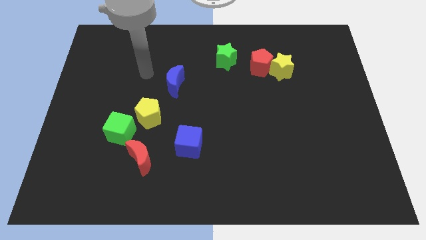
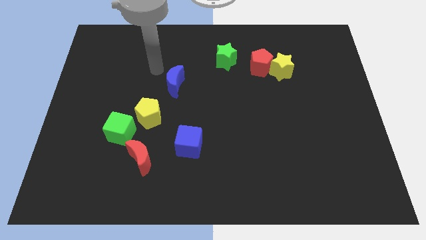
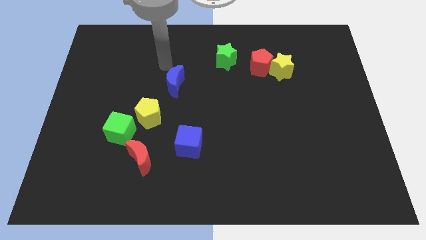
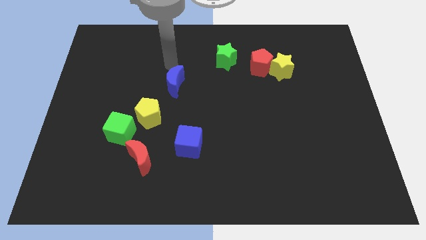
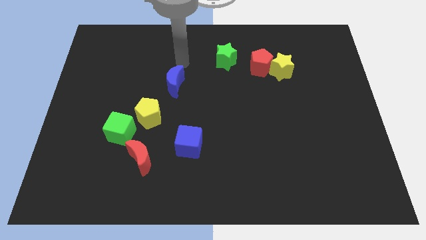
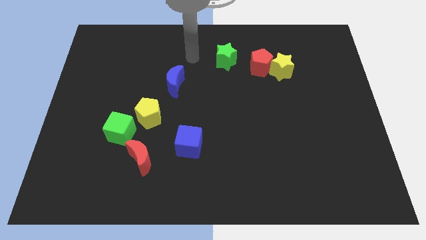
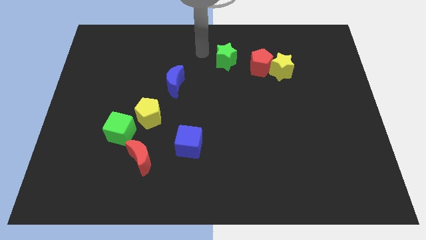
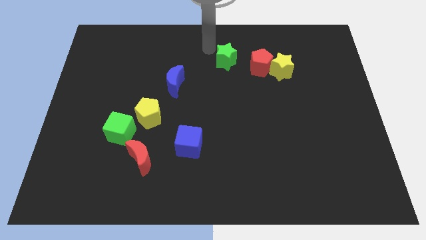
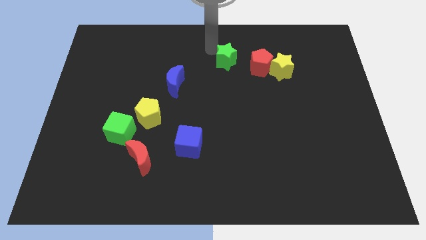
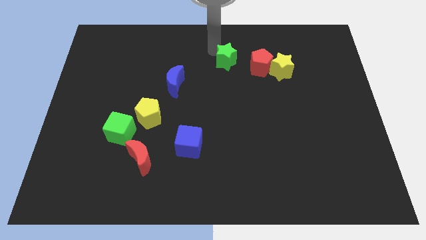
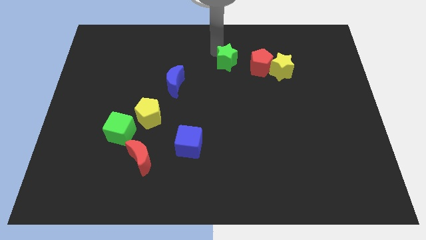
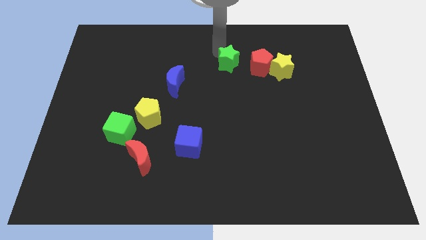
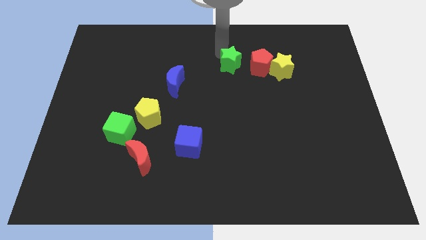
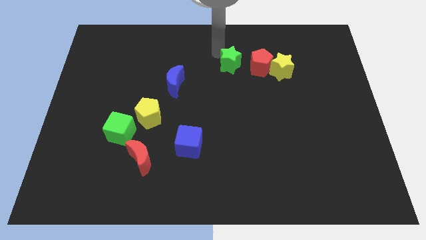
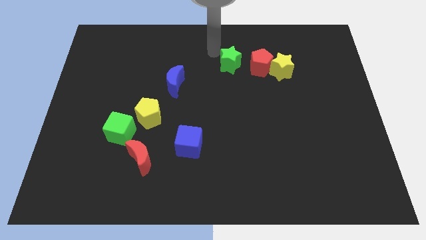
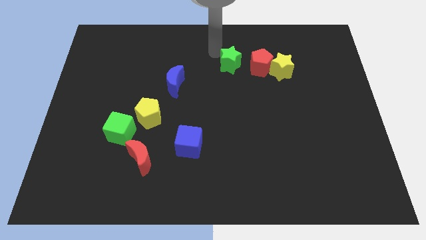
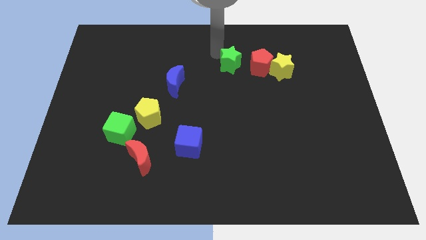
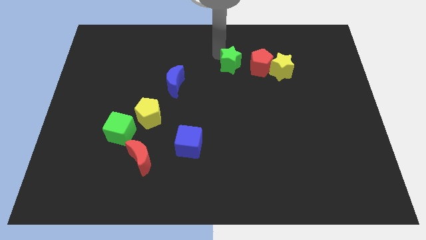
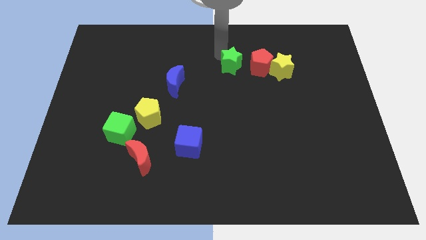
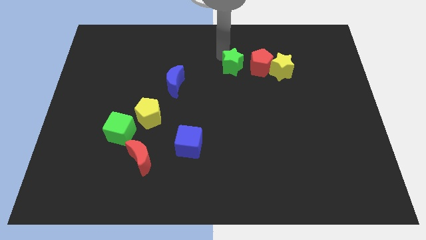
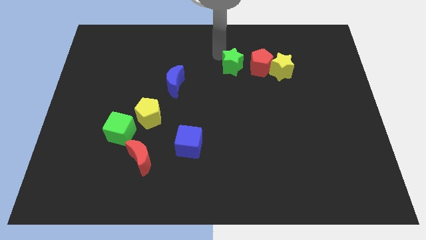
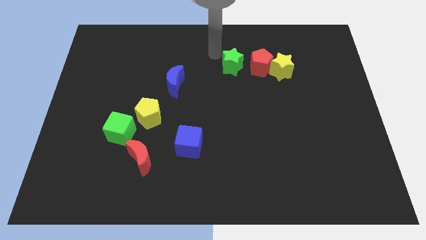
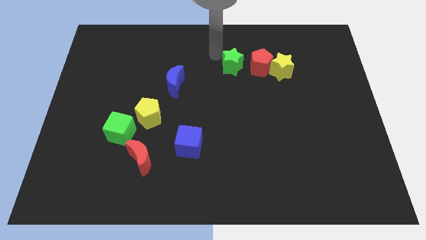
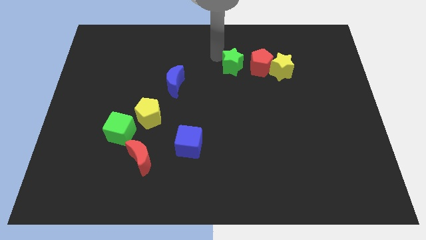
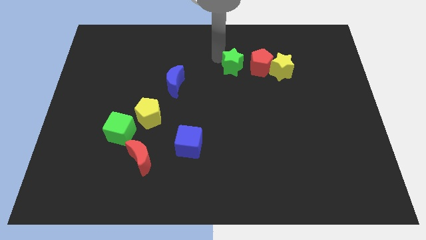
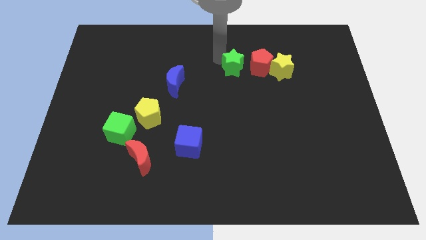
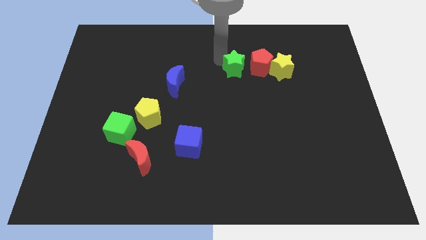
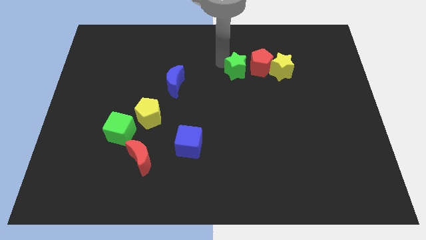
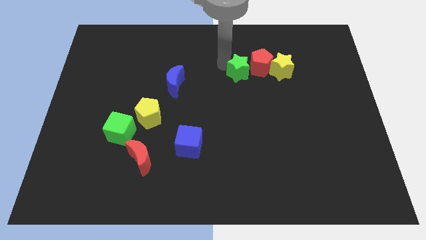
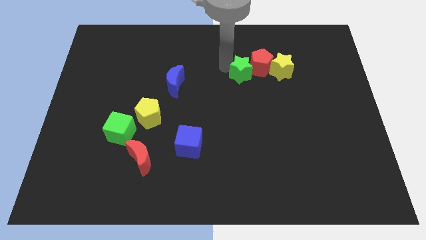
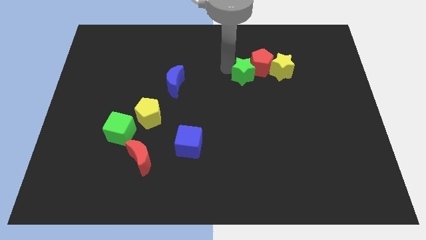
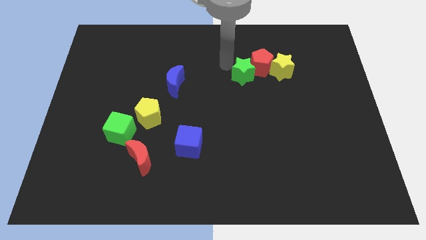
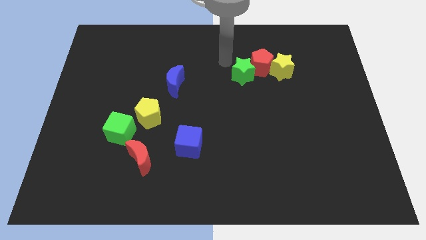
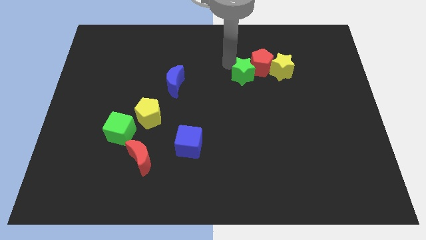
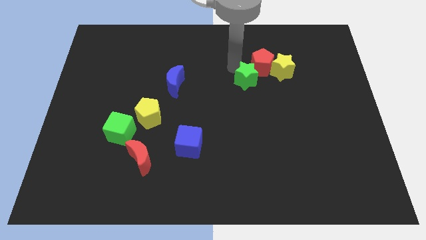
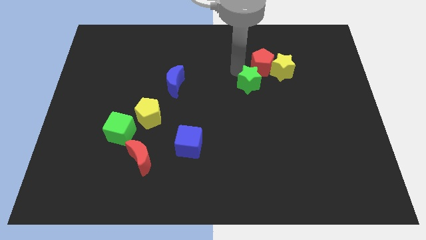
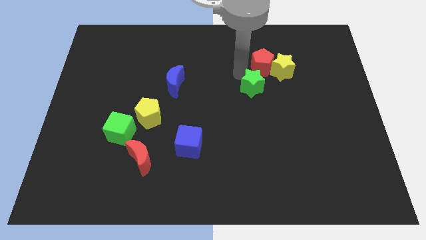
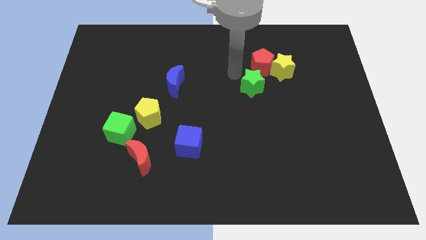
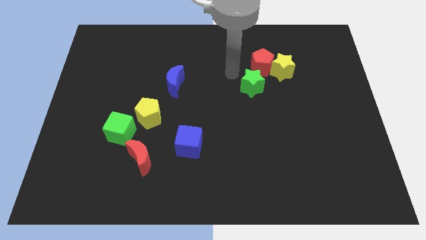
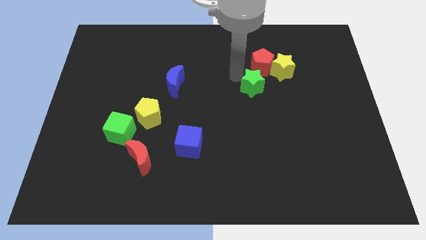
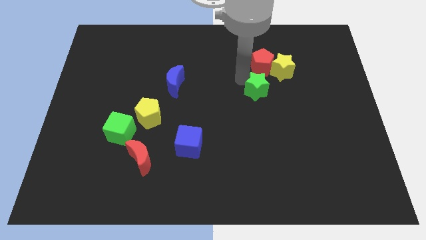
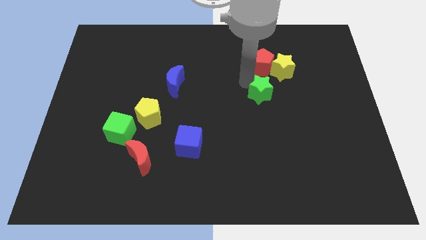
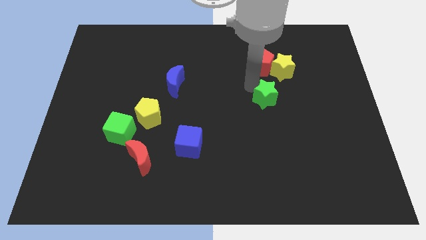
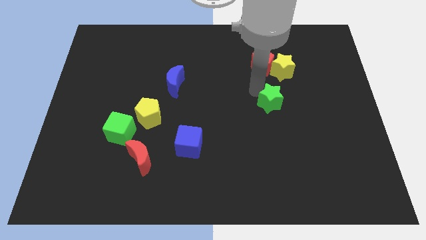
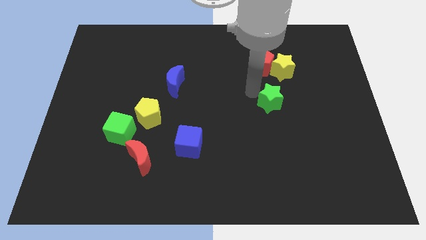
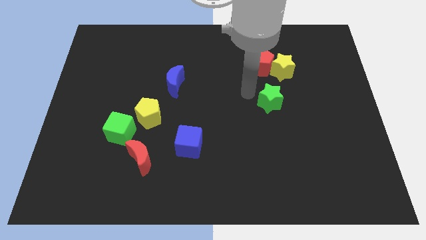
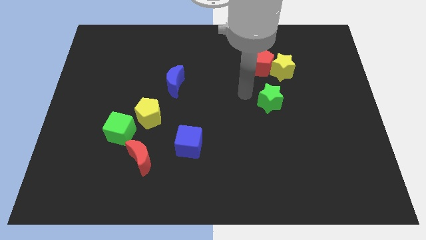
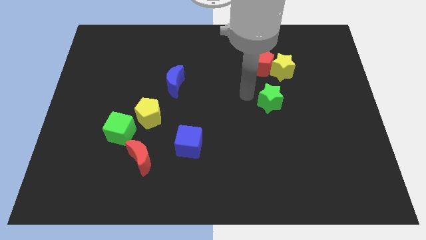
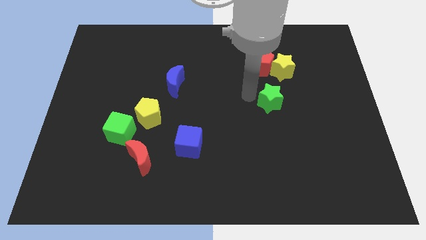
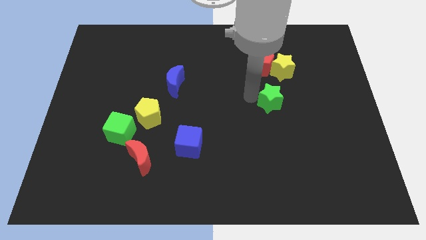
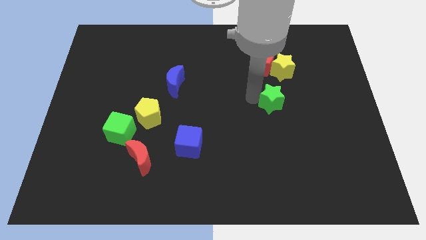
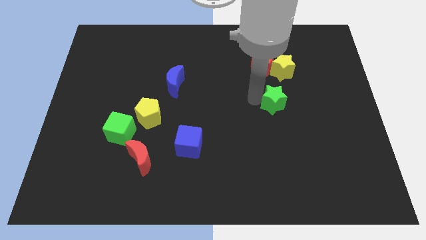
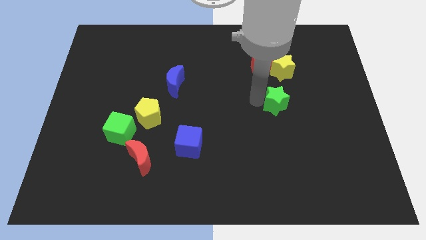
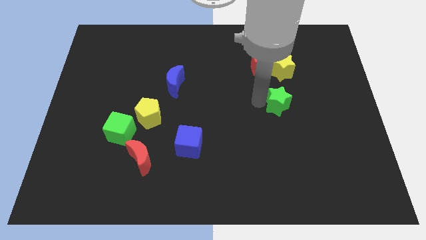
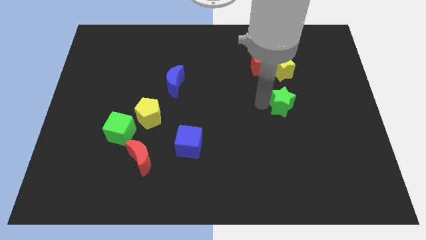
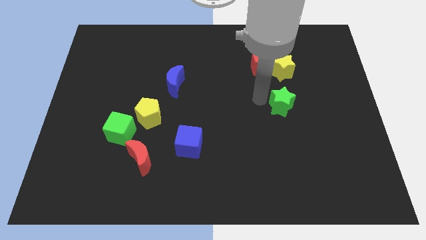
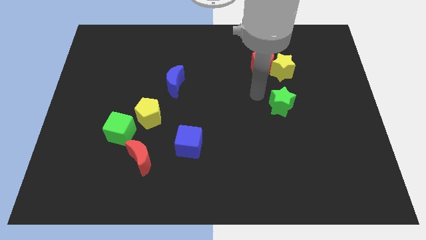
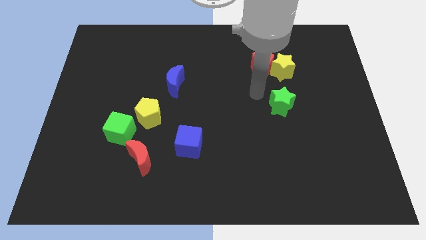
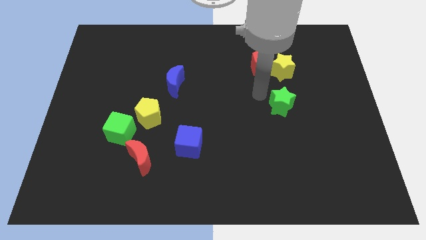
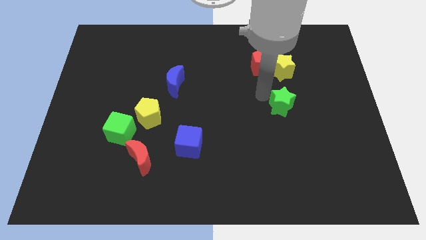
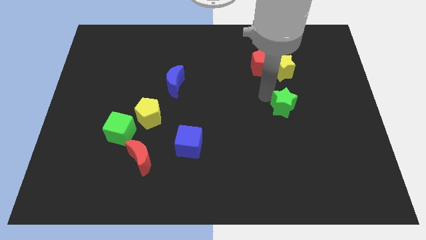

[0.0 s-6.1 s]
push the green star down and right diagonally

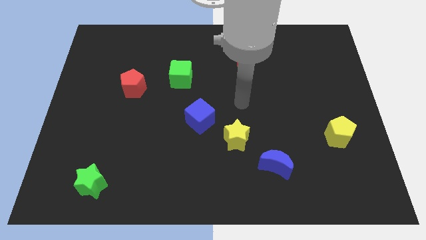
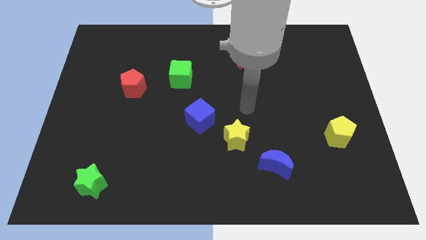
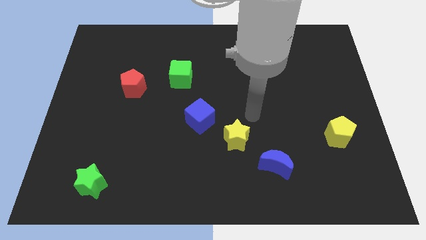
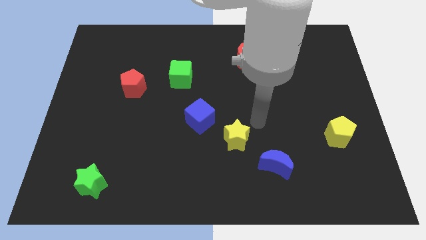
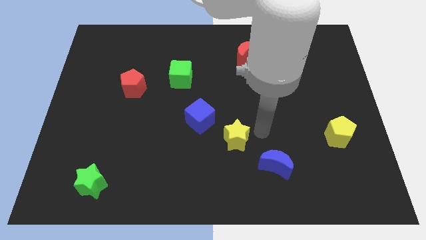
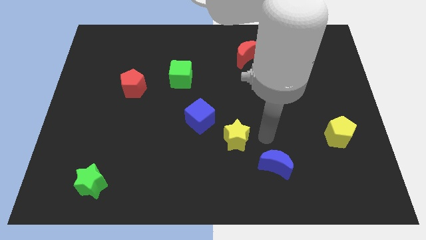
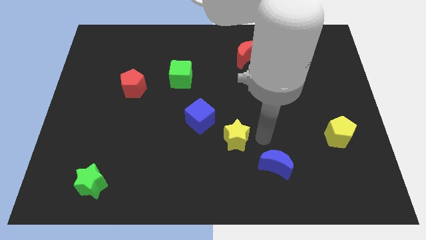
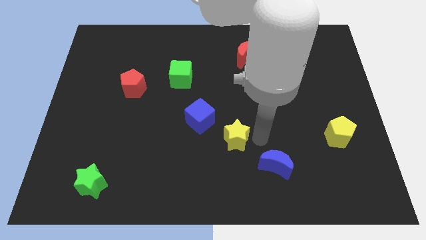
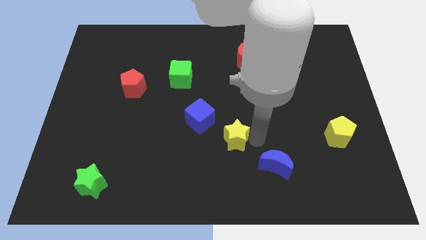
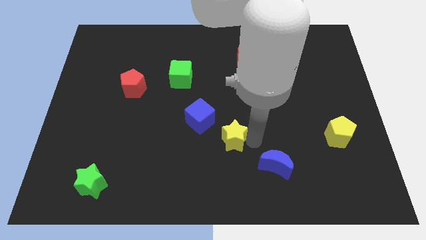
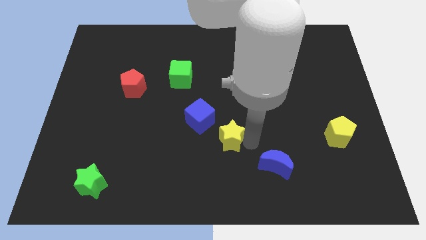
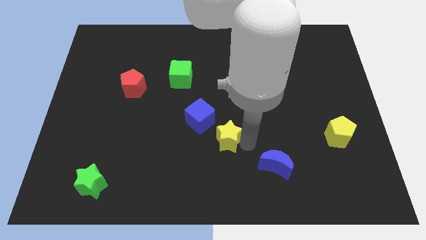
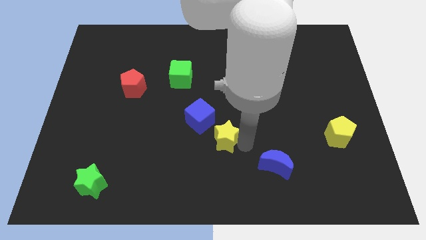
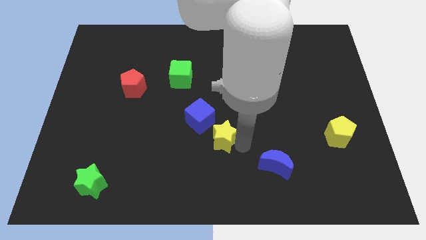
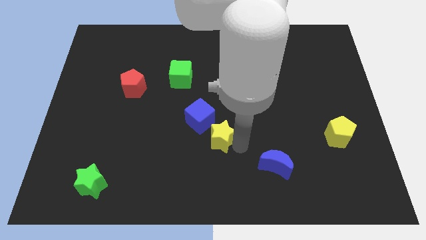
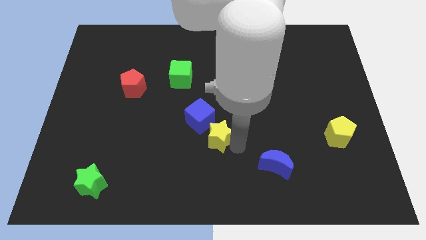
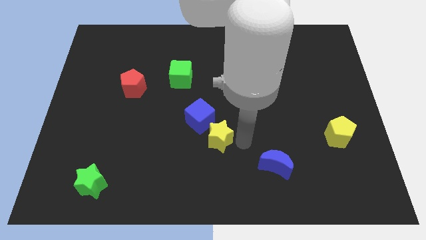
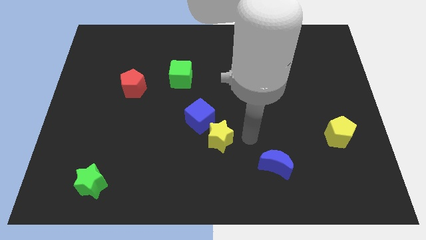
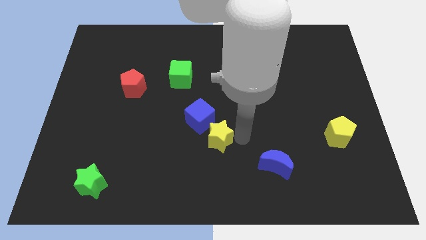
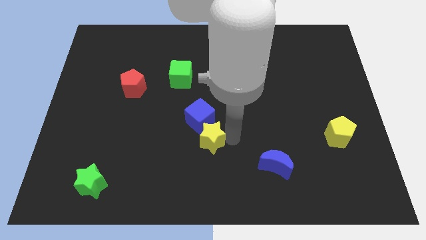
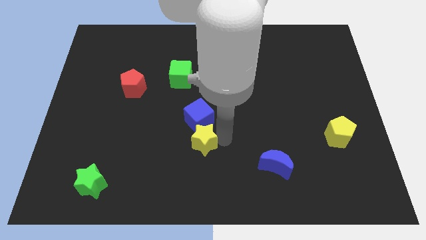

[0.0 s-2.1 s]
move the yellow star a little left
